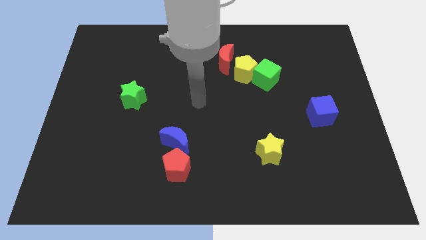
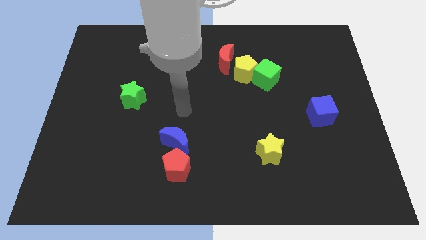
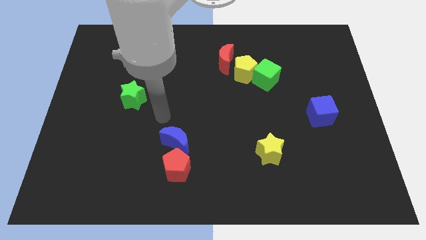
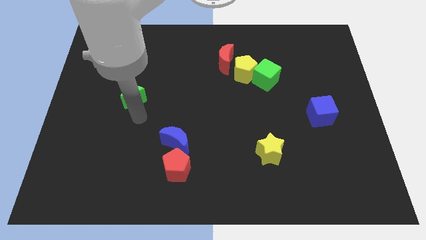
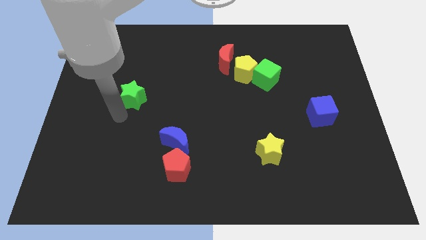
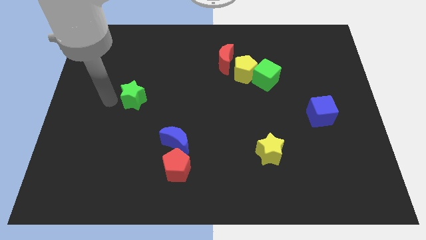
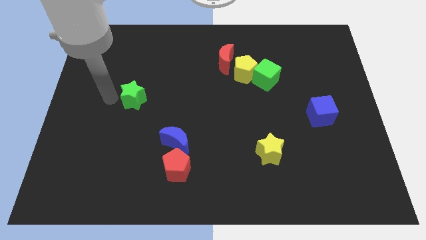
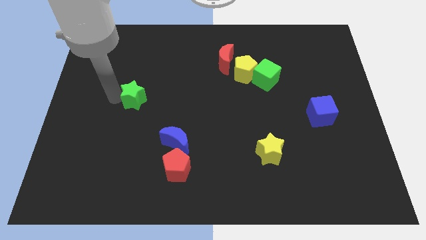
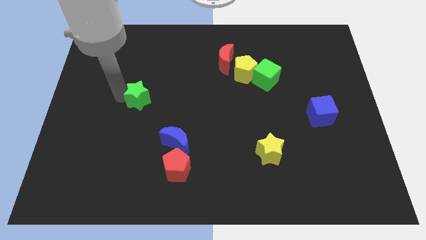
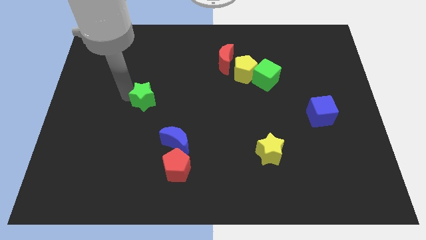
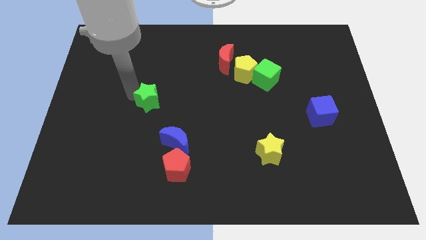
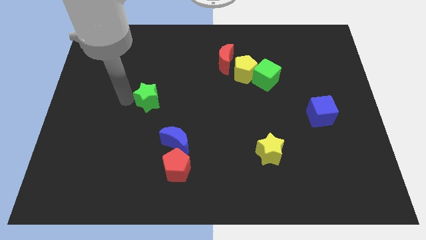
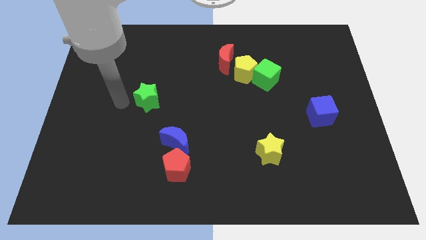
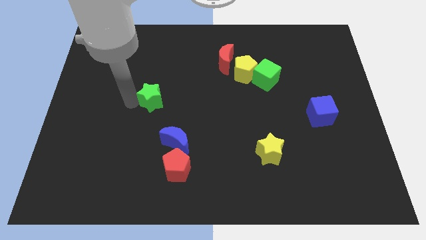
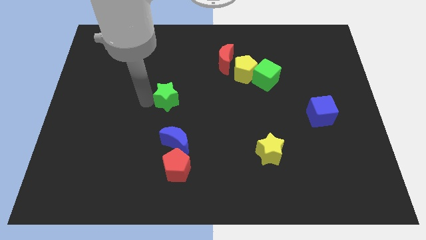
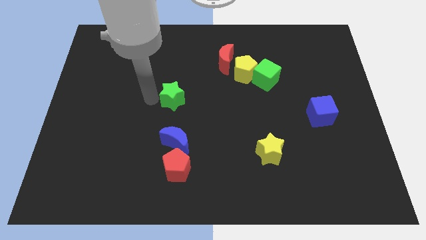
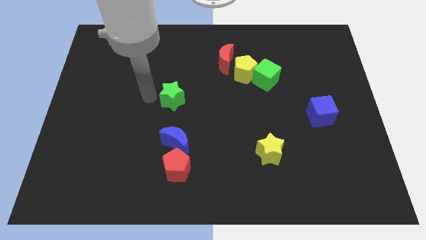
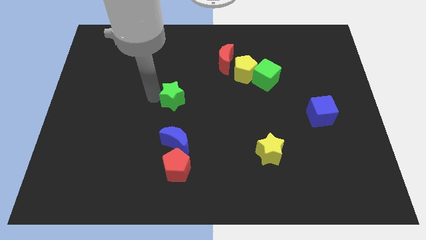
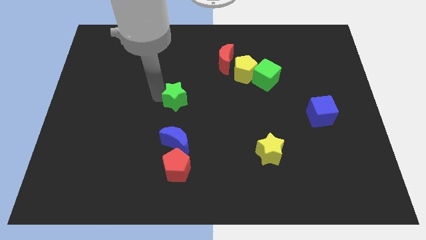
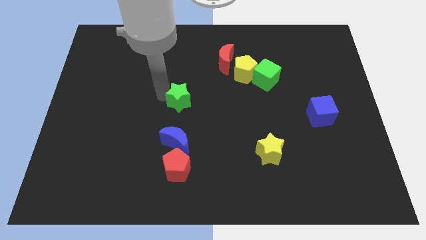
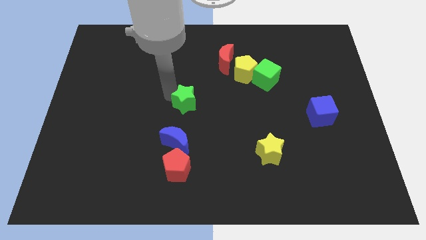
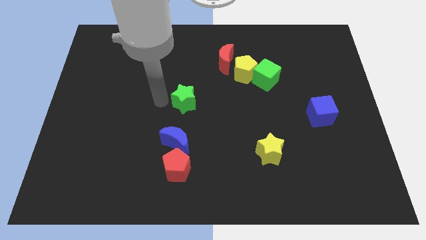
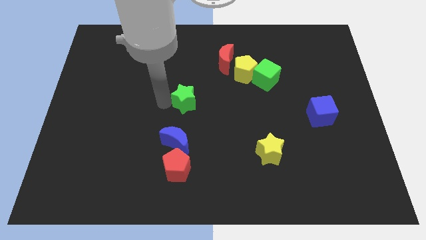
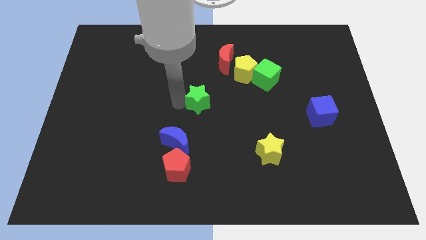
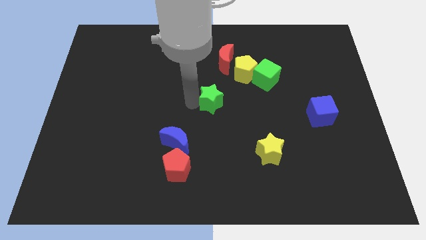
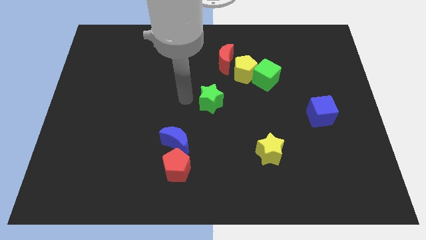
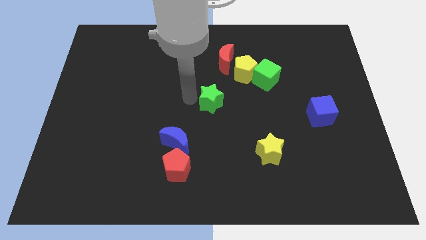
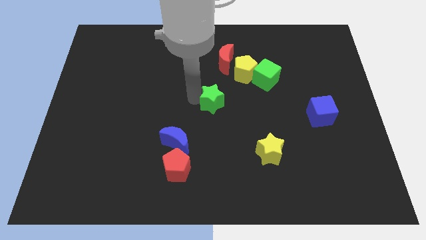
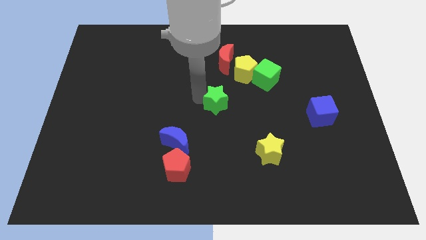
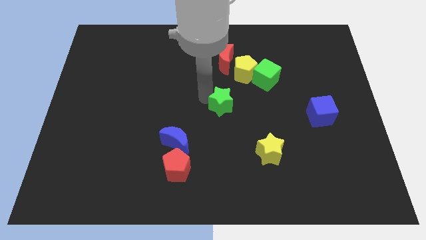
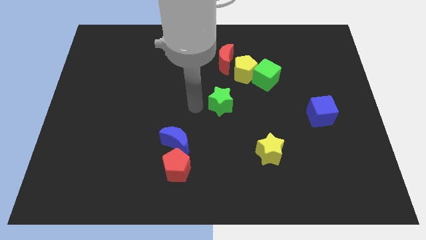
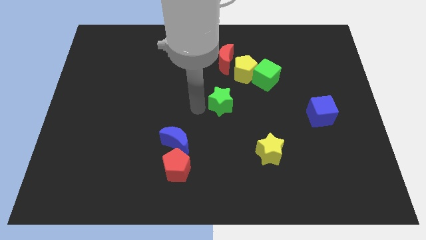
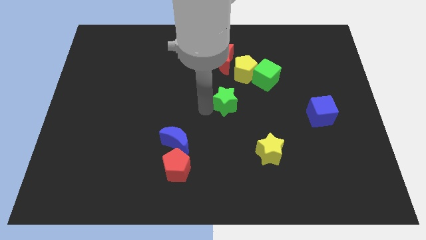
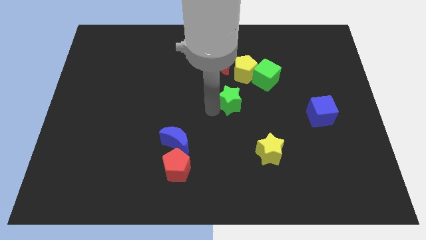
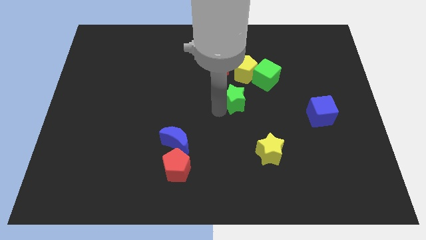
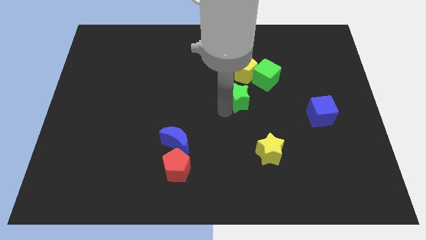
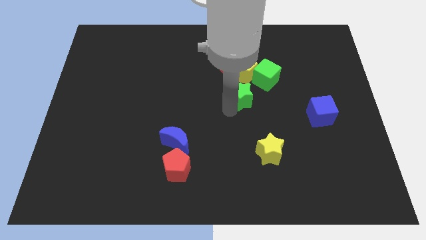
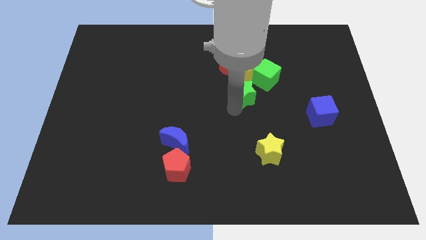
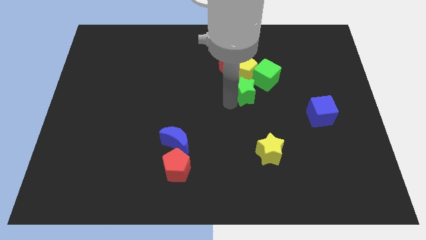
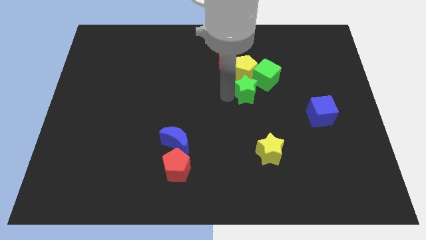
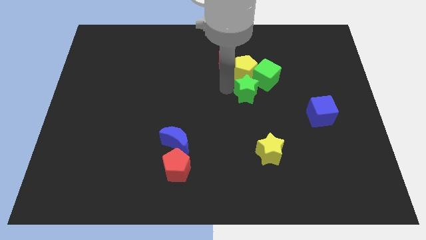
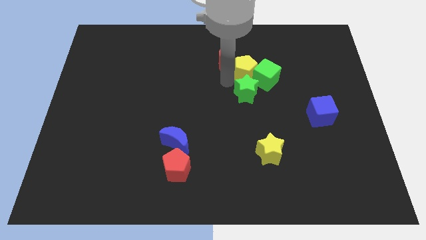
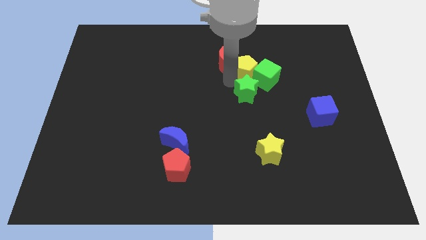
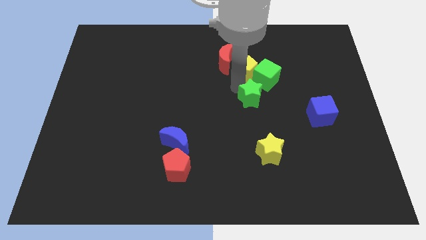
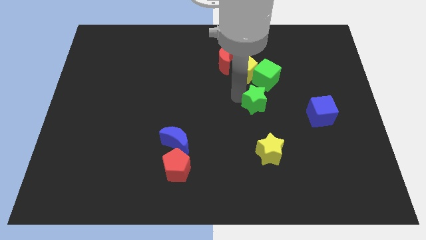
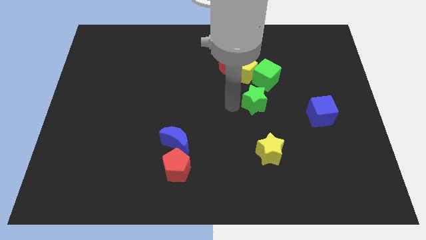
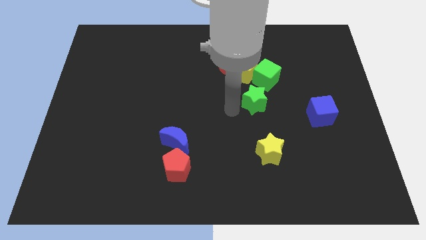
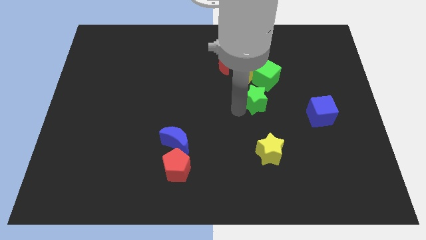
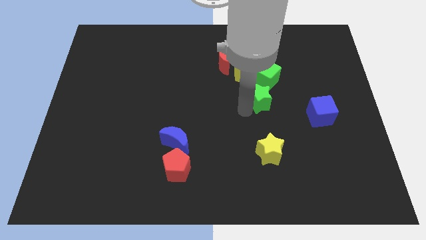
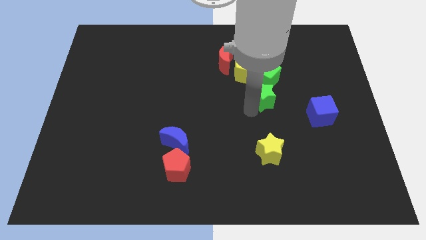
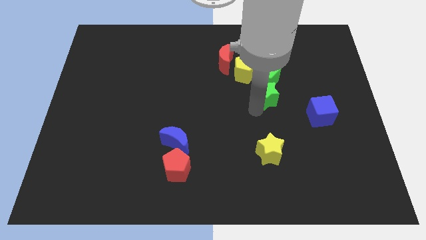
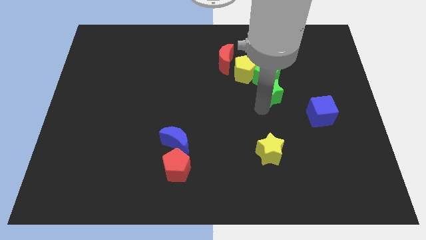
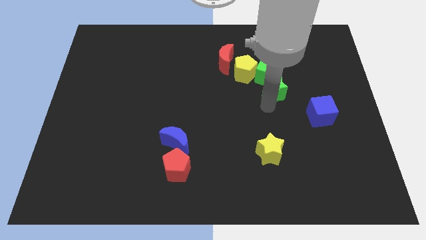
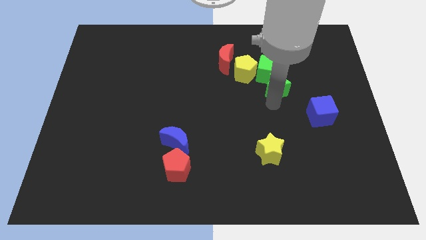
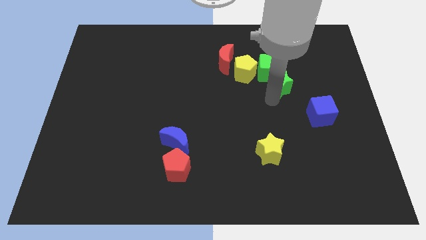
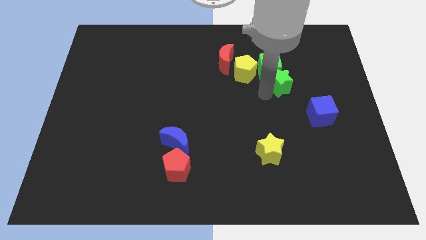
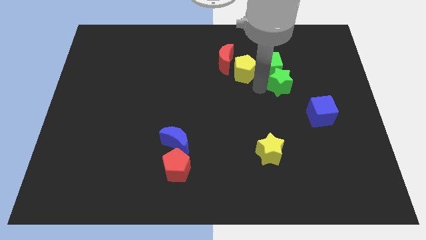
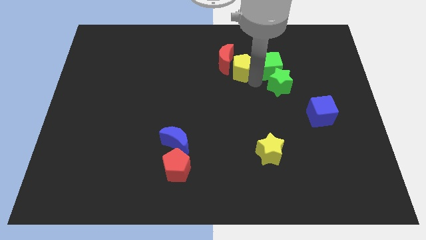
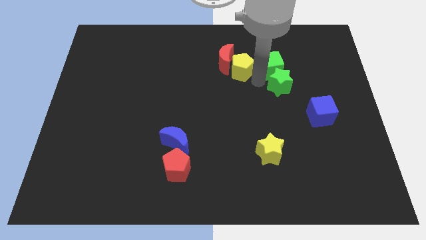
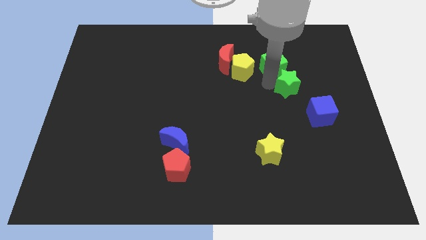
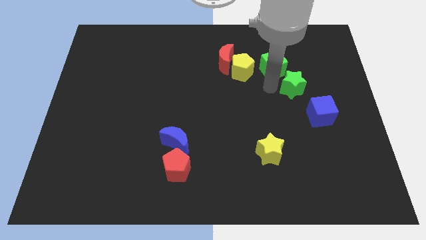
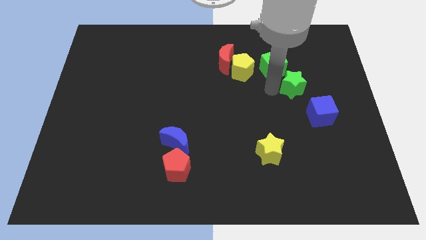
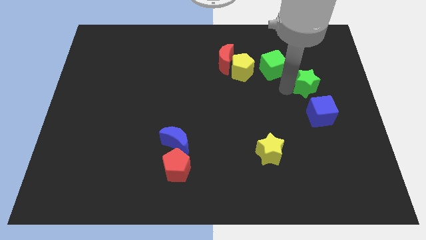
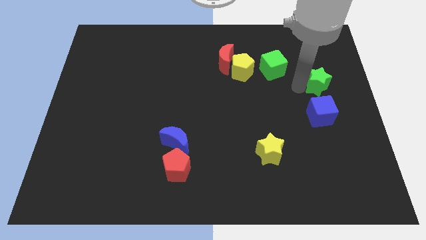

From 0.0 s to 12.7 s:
put the green star to the right side of the board
